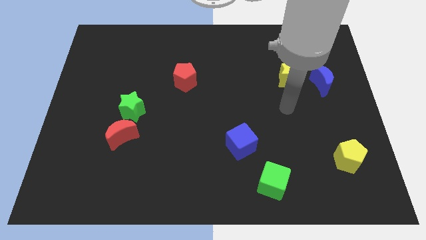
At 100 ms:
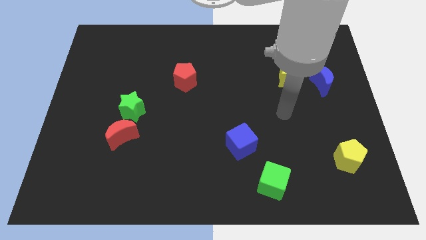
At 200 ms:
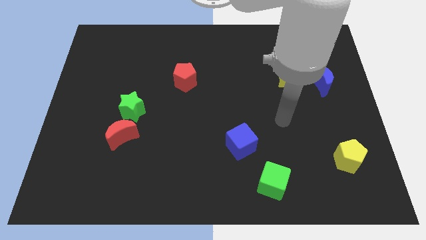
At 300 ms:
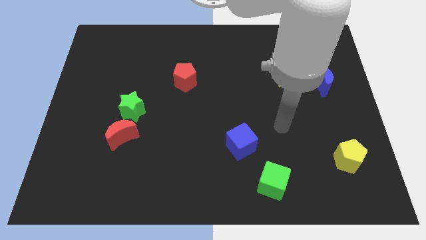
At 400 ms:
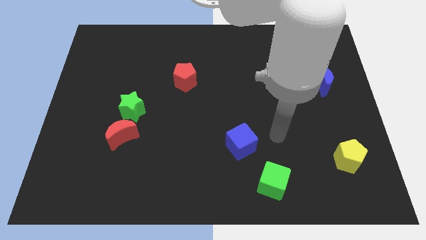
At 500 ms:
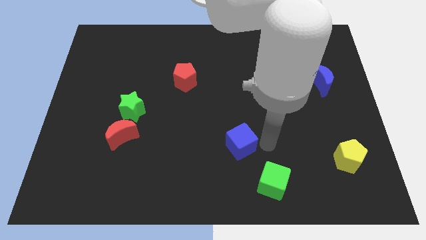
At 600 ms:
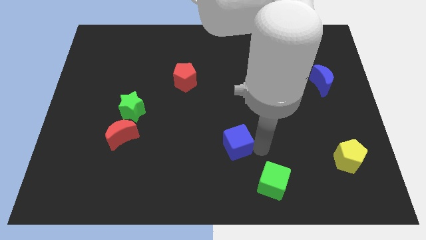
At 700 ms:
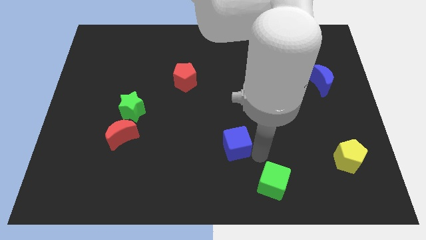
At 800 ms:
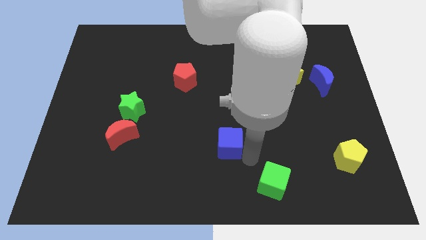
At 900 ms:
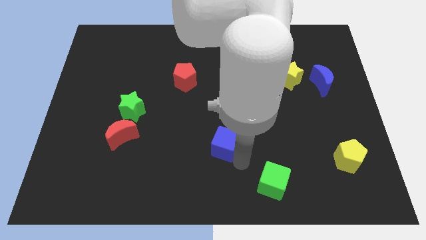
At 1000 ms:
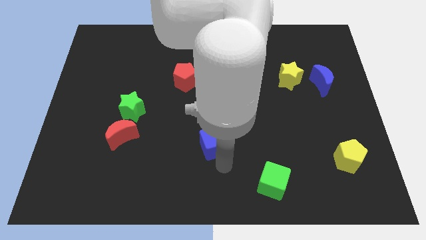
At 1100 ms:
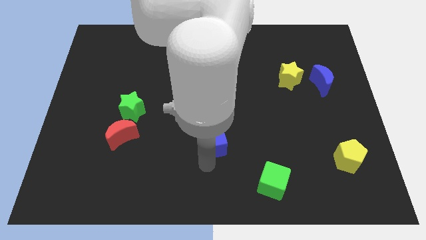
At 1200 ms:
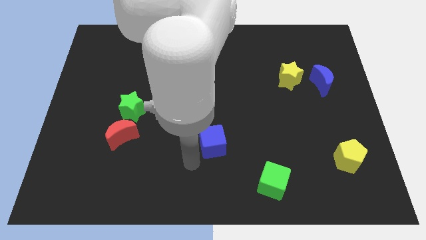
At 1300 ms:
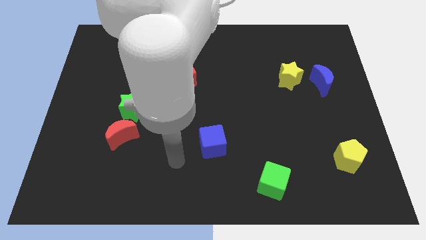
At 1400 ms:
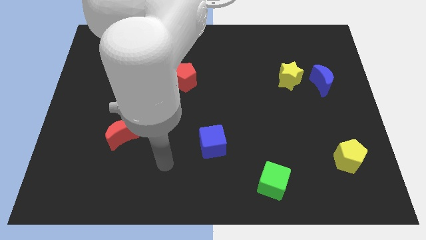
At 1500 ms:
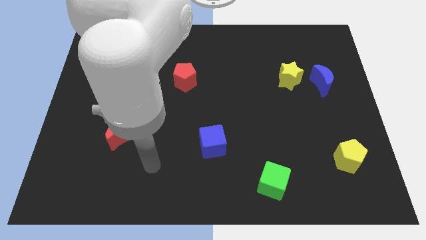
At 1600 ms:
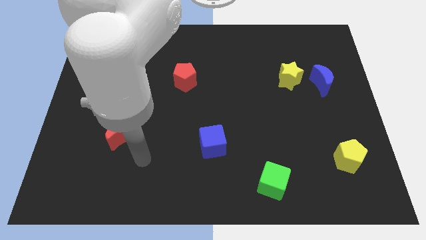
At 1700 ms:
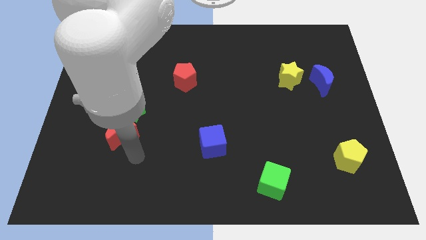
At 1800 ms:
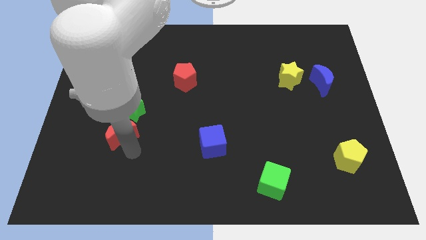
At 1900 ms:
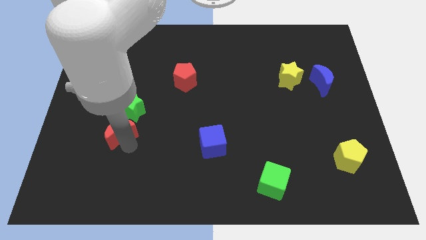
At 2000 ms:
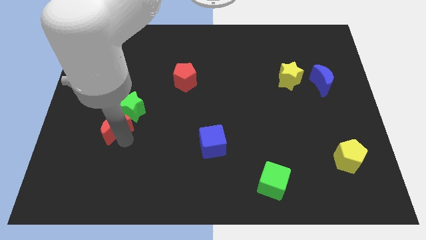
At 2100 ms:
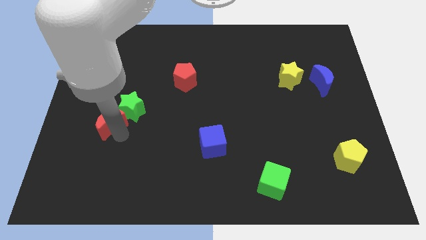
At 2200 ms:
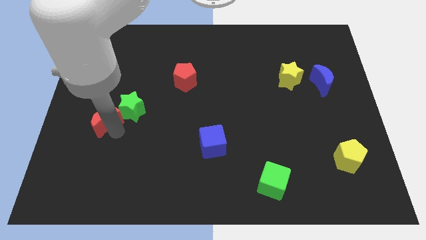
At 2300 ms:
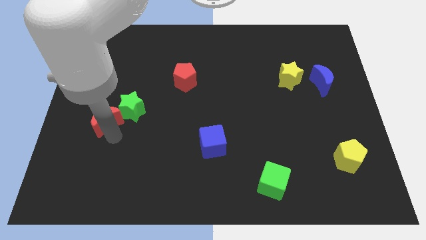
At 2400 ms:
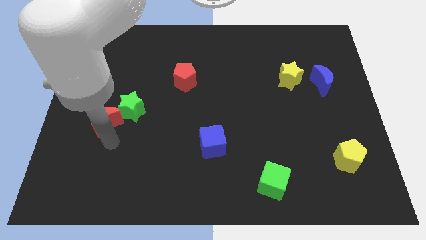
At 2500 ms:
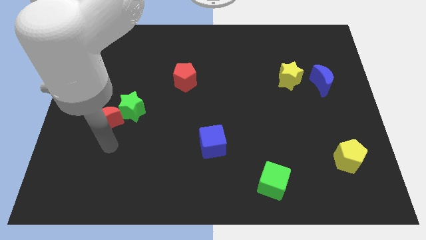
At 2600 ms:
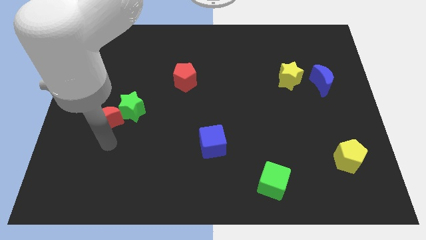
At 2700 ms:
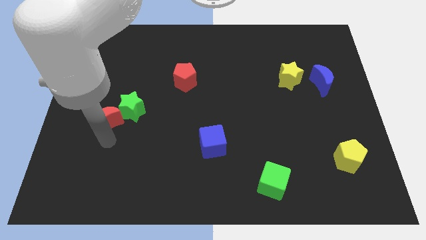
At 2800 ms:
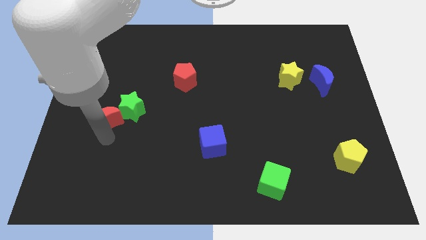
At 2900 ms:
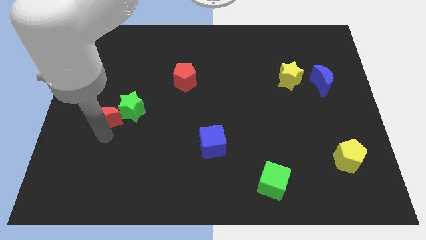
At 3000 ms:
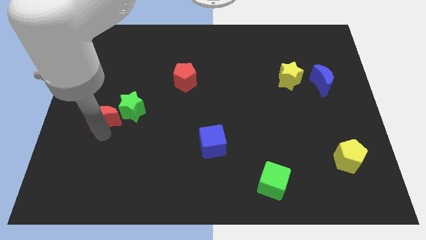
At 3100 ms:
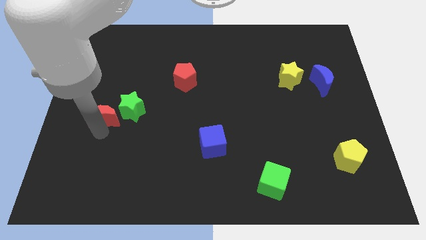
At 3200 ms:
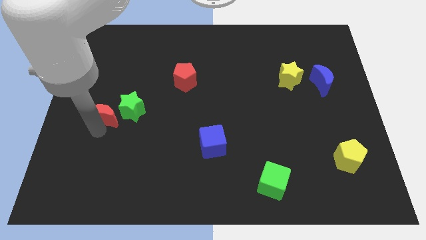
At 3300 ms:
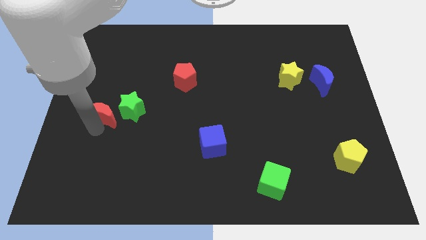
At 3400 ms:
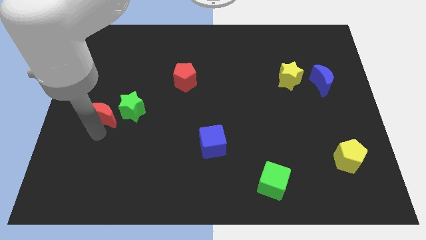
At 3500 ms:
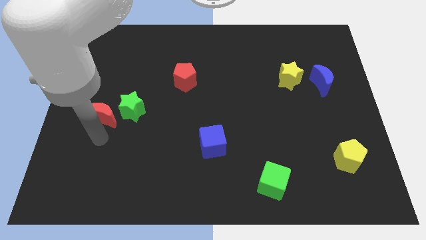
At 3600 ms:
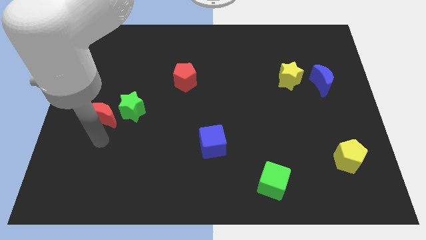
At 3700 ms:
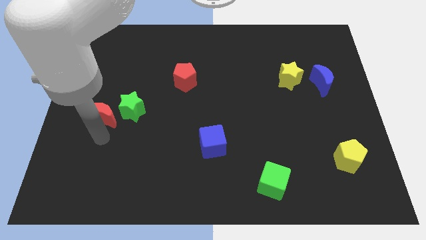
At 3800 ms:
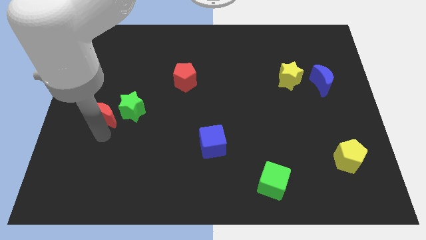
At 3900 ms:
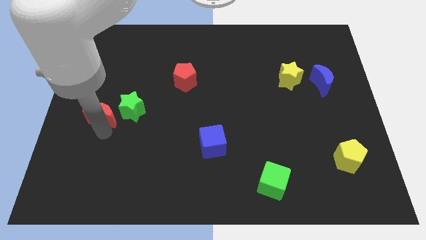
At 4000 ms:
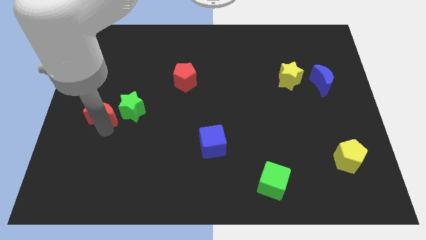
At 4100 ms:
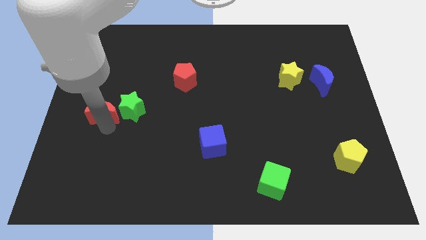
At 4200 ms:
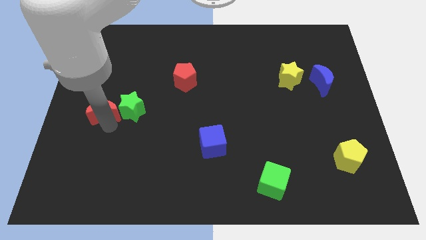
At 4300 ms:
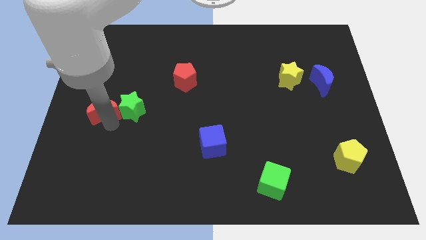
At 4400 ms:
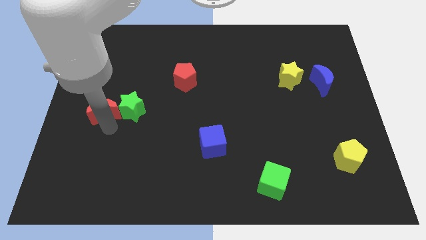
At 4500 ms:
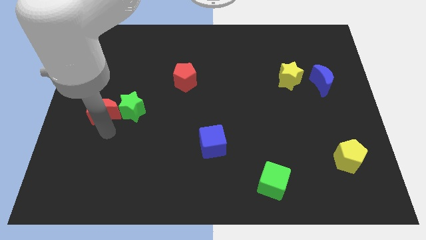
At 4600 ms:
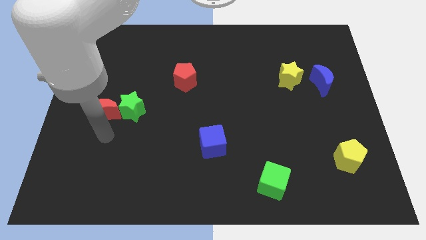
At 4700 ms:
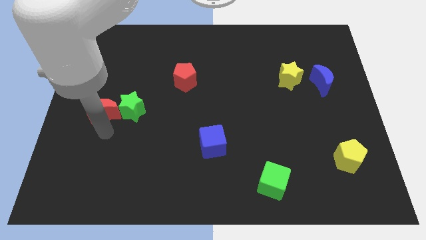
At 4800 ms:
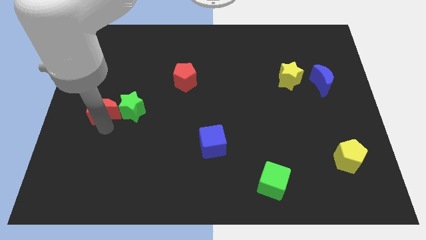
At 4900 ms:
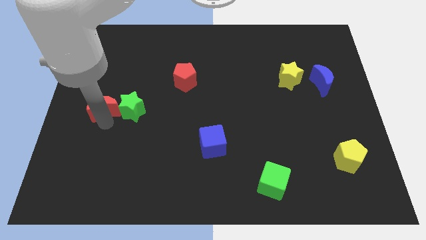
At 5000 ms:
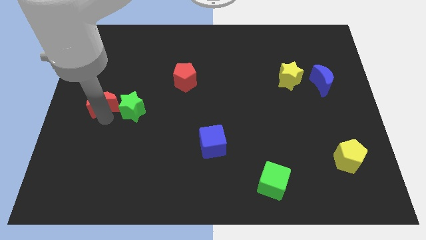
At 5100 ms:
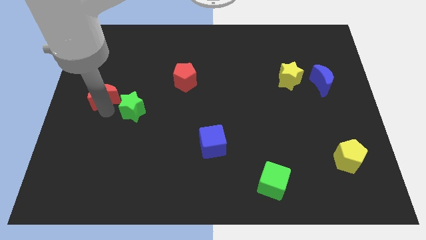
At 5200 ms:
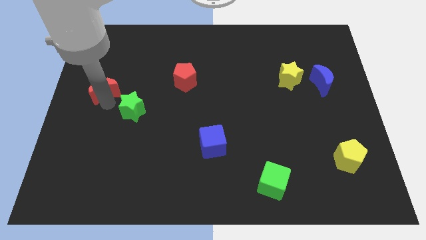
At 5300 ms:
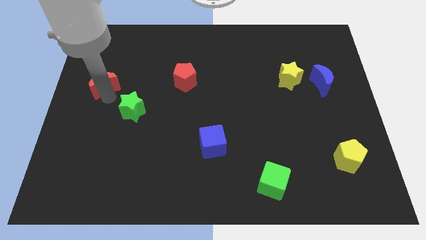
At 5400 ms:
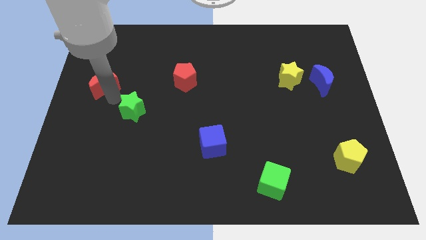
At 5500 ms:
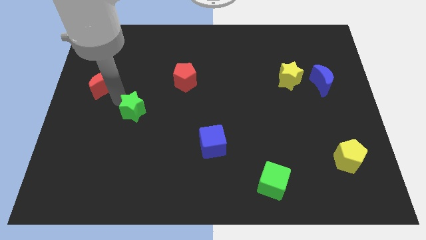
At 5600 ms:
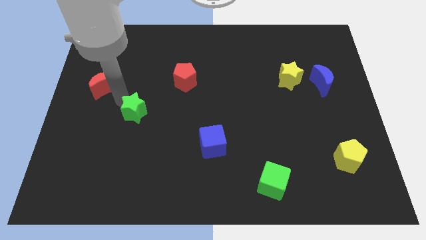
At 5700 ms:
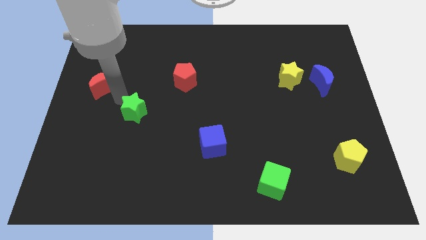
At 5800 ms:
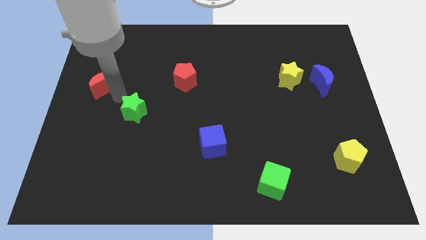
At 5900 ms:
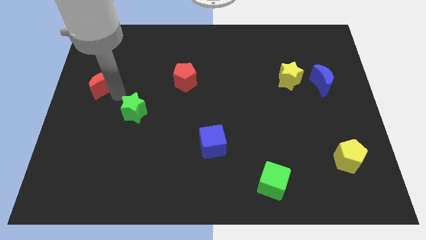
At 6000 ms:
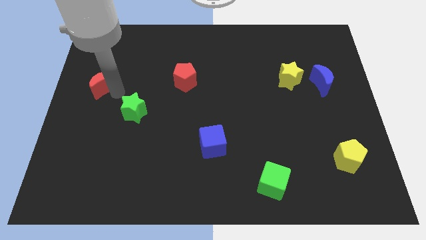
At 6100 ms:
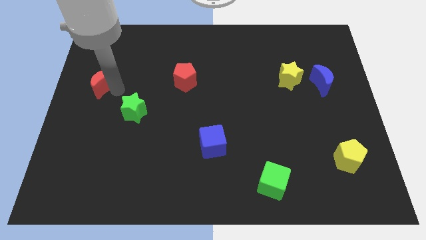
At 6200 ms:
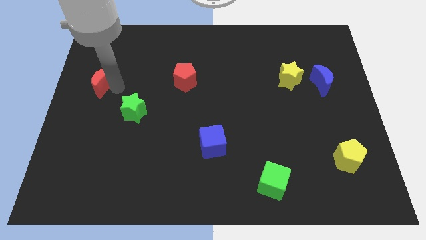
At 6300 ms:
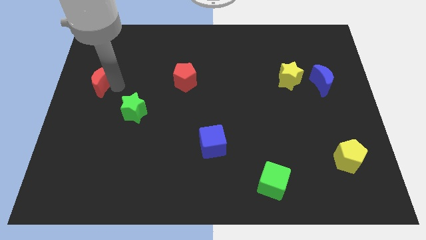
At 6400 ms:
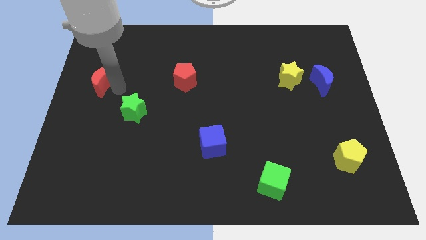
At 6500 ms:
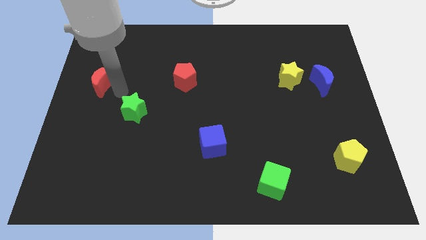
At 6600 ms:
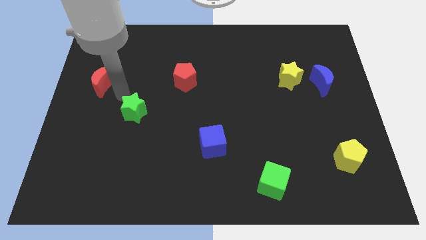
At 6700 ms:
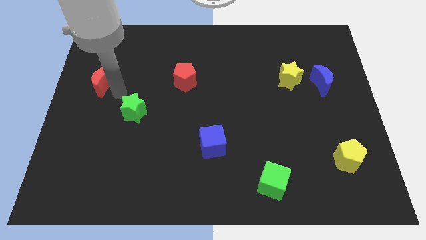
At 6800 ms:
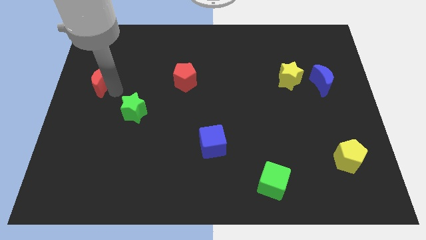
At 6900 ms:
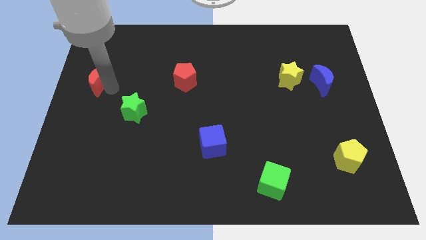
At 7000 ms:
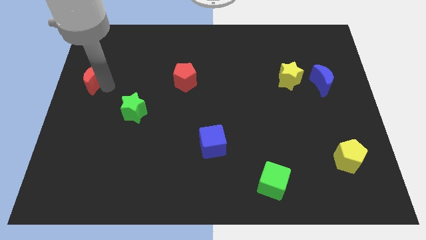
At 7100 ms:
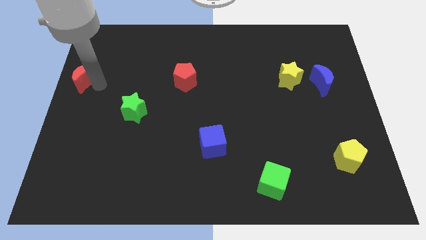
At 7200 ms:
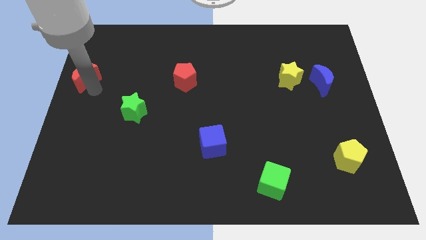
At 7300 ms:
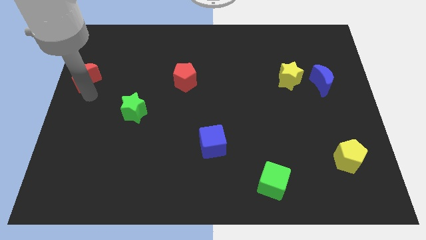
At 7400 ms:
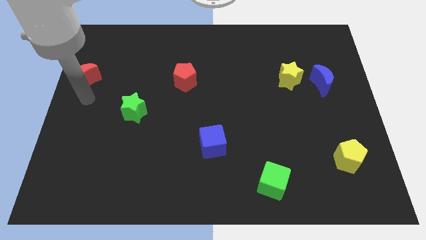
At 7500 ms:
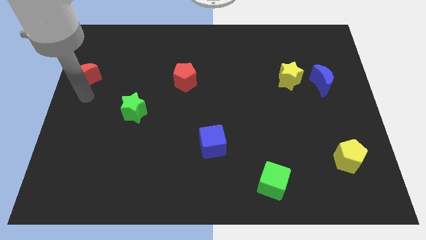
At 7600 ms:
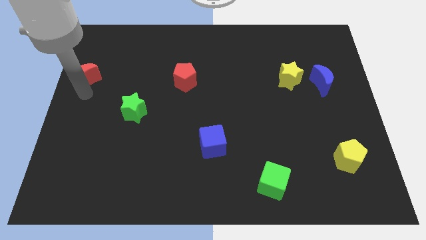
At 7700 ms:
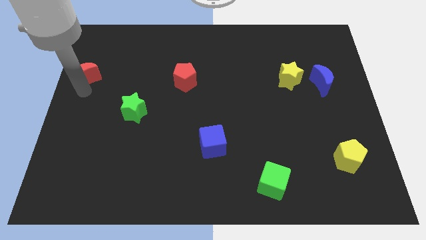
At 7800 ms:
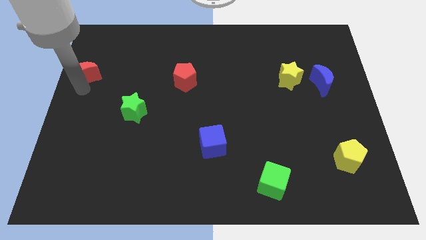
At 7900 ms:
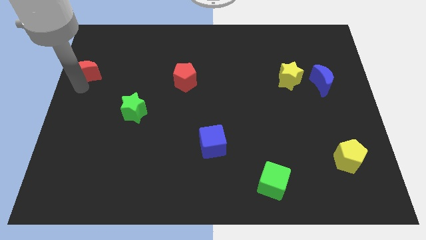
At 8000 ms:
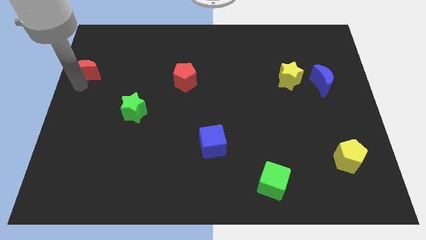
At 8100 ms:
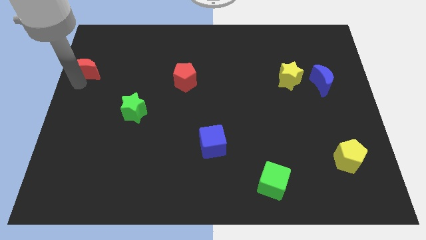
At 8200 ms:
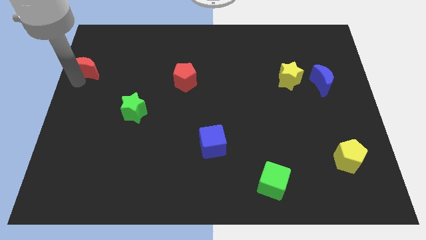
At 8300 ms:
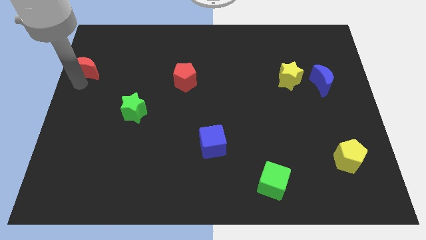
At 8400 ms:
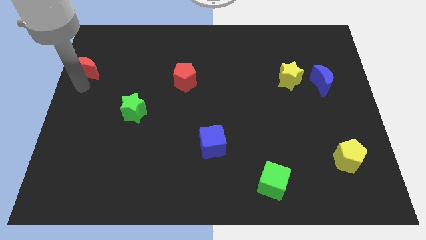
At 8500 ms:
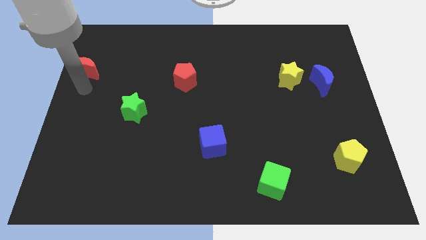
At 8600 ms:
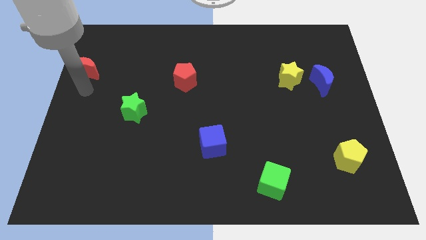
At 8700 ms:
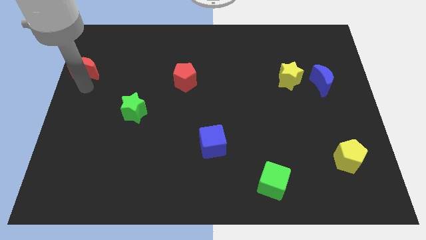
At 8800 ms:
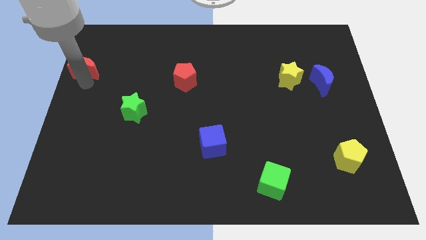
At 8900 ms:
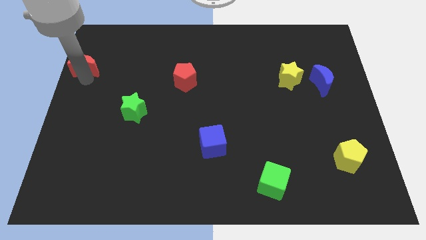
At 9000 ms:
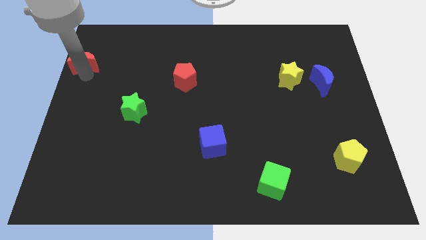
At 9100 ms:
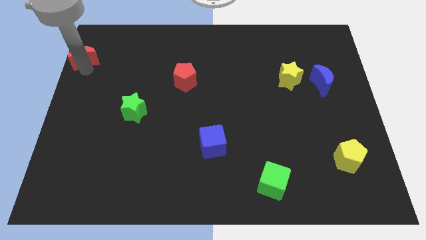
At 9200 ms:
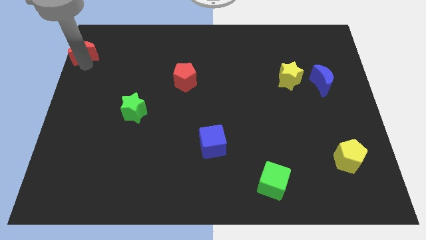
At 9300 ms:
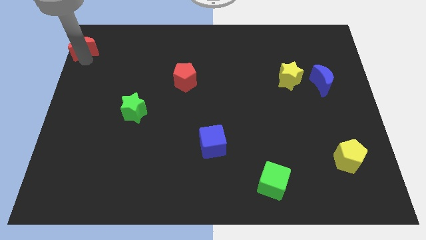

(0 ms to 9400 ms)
put the red moon to the top left
